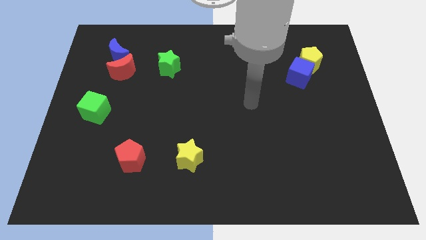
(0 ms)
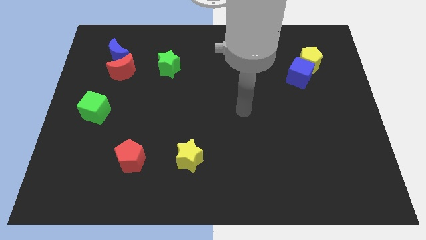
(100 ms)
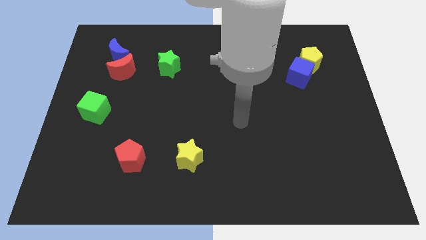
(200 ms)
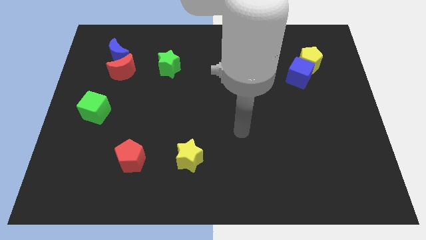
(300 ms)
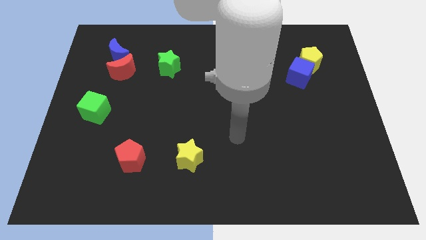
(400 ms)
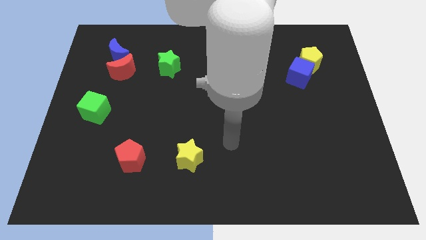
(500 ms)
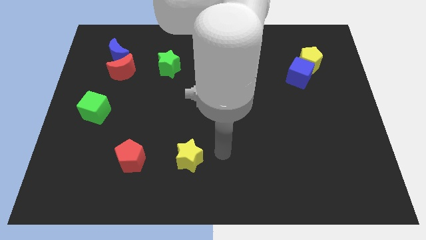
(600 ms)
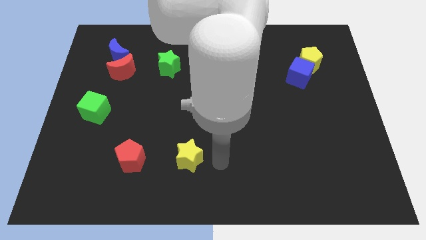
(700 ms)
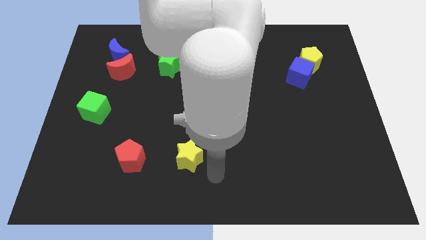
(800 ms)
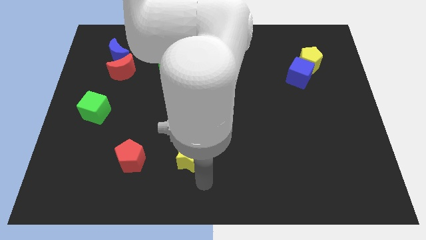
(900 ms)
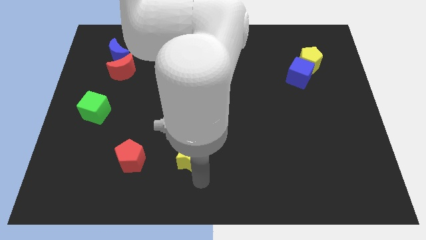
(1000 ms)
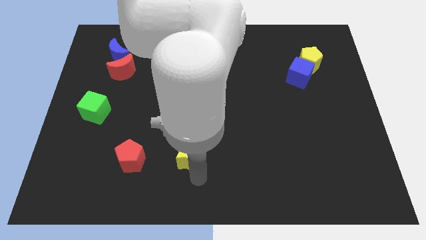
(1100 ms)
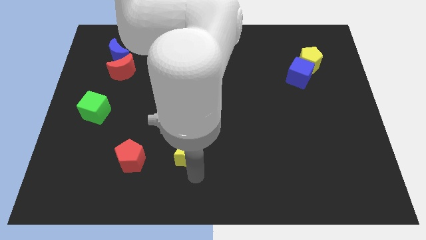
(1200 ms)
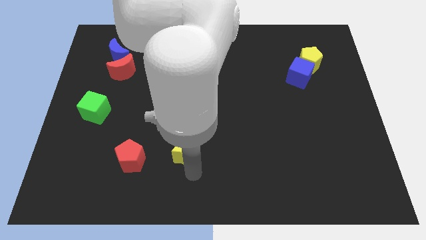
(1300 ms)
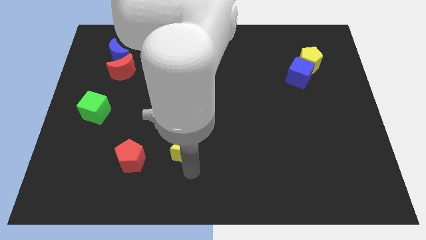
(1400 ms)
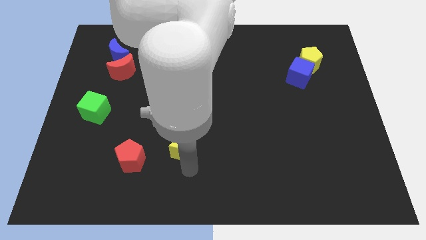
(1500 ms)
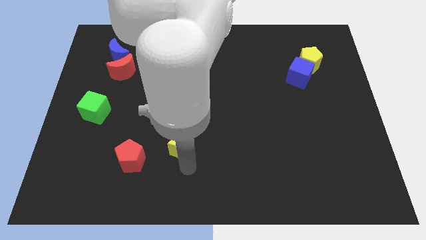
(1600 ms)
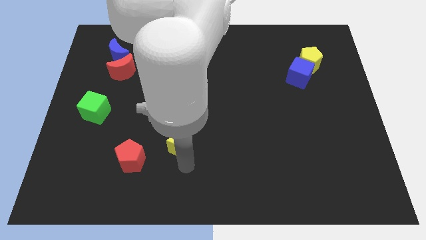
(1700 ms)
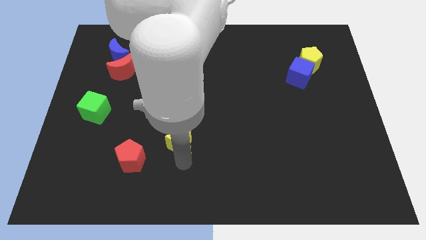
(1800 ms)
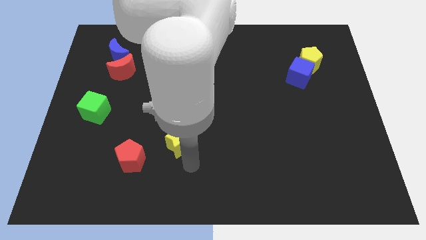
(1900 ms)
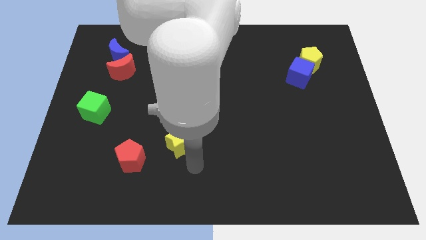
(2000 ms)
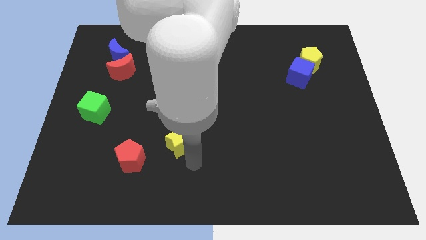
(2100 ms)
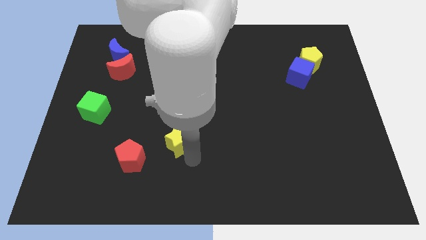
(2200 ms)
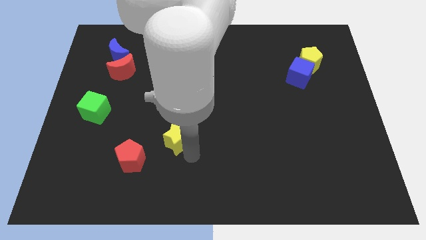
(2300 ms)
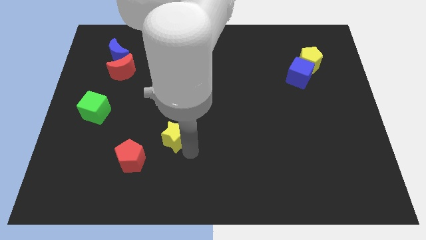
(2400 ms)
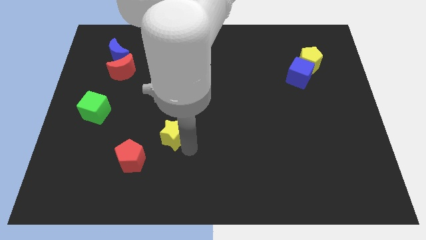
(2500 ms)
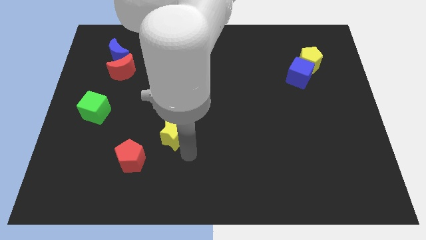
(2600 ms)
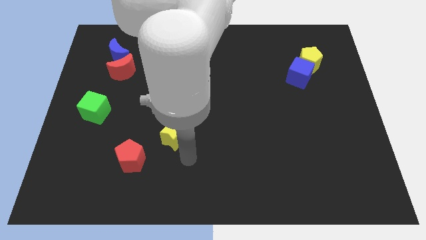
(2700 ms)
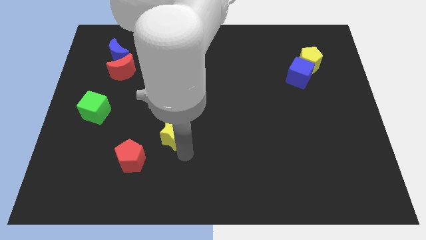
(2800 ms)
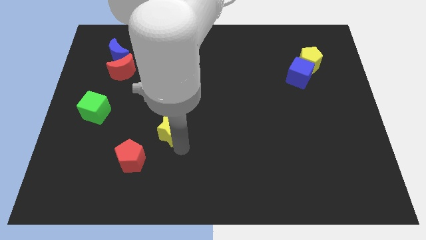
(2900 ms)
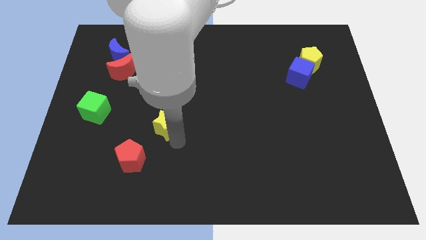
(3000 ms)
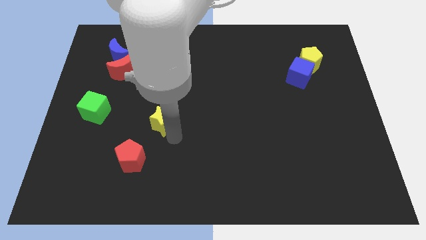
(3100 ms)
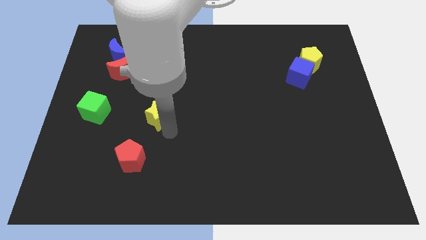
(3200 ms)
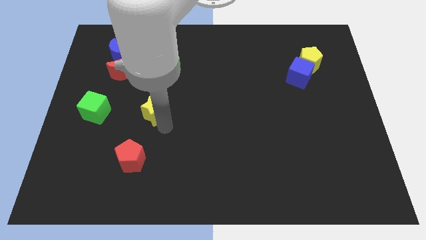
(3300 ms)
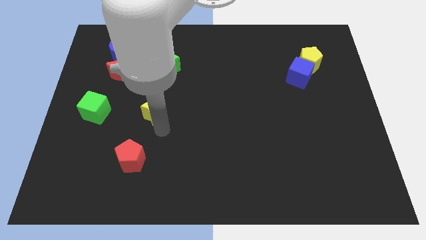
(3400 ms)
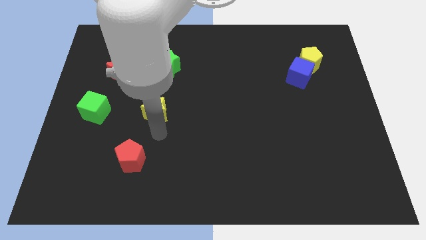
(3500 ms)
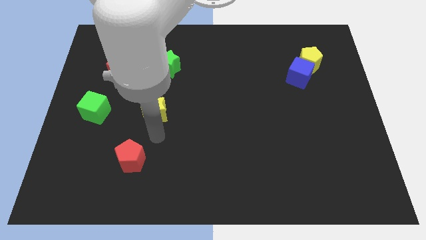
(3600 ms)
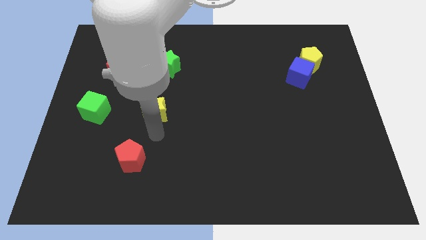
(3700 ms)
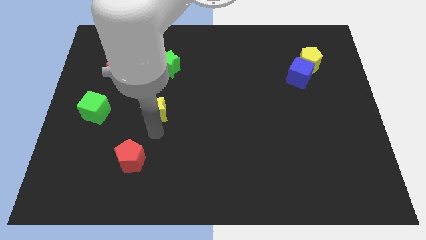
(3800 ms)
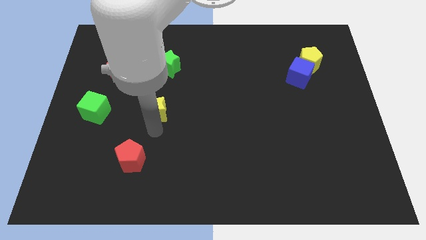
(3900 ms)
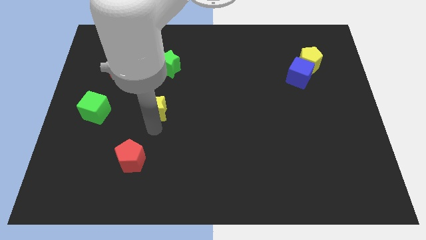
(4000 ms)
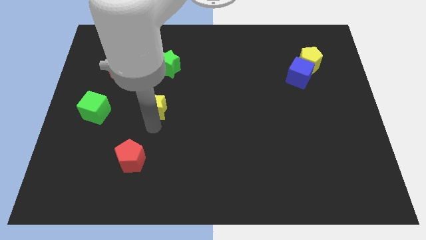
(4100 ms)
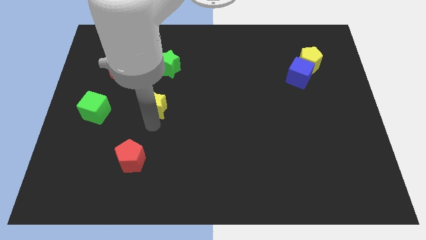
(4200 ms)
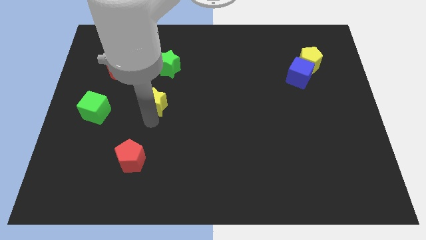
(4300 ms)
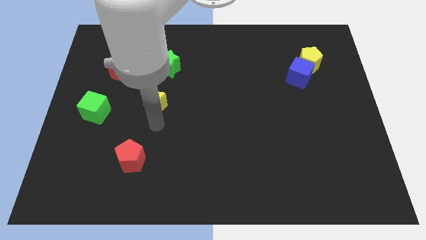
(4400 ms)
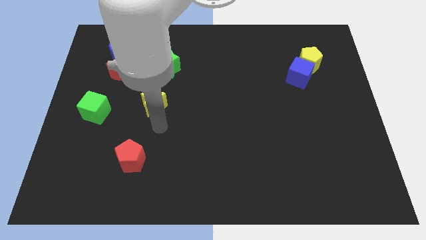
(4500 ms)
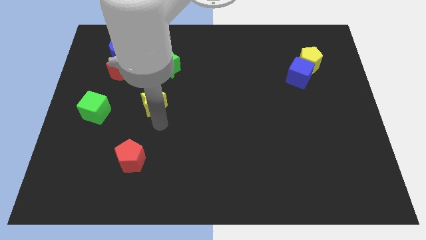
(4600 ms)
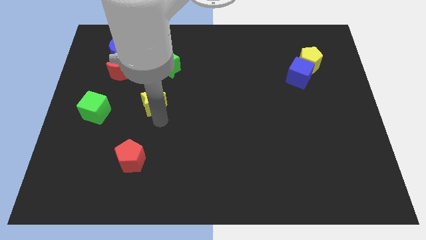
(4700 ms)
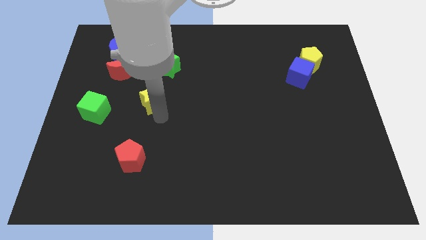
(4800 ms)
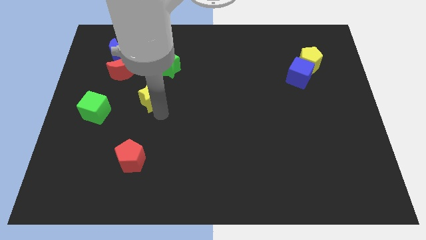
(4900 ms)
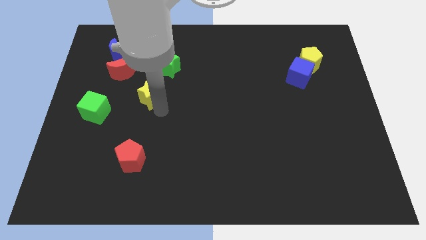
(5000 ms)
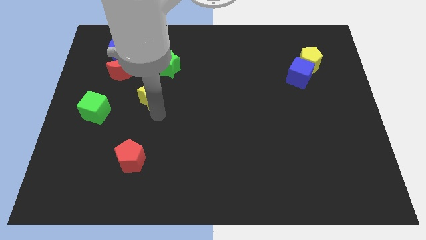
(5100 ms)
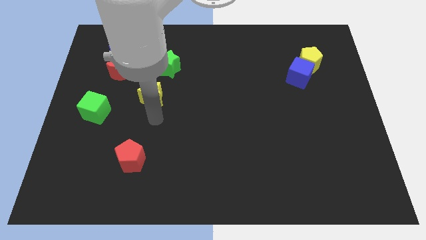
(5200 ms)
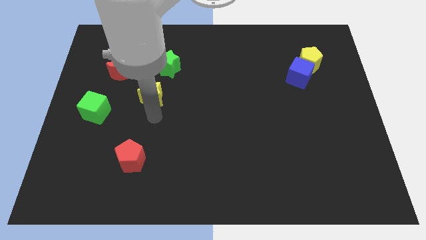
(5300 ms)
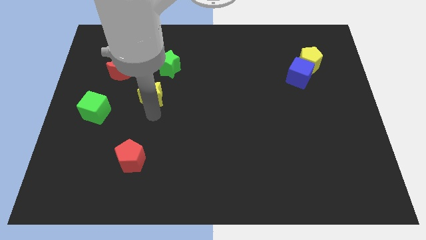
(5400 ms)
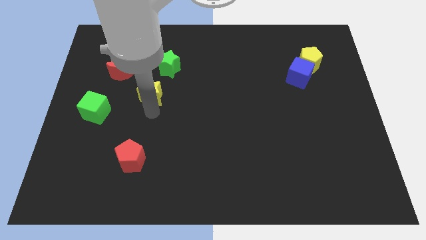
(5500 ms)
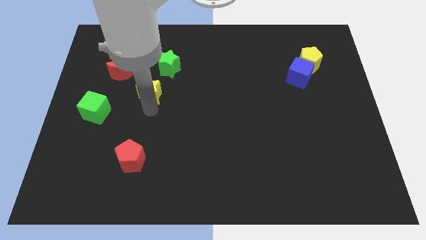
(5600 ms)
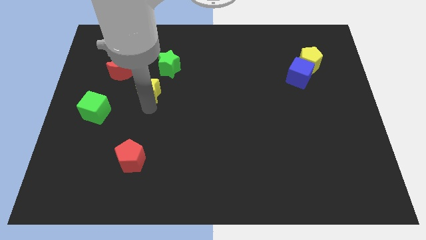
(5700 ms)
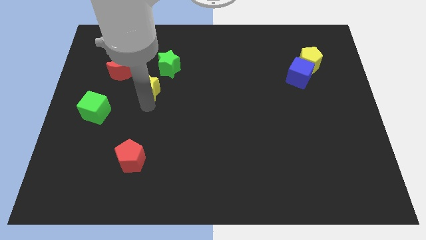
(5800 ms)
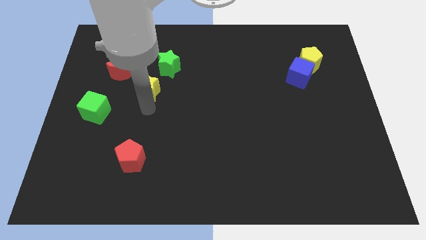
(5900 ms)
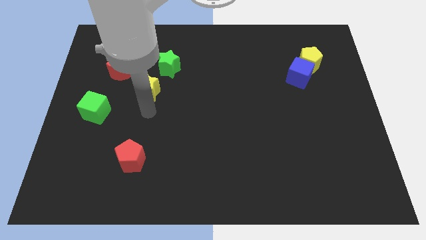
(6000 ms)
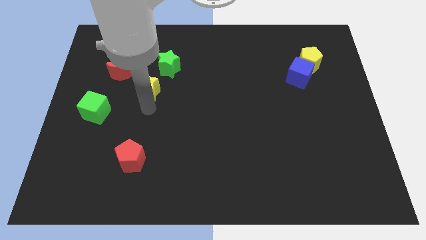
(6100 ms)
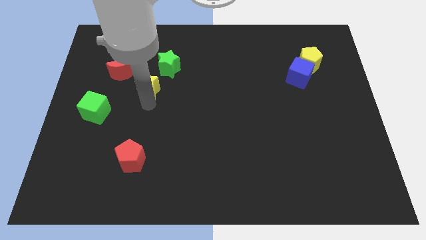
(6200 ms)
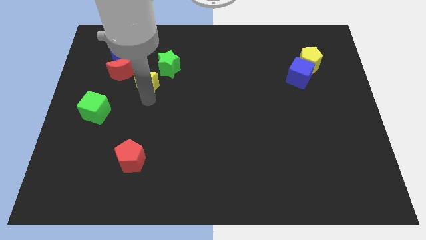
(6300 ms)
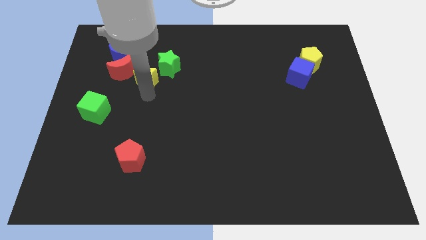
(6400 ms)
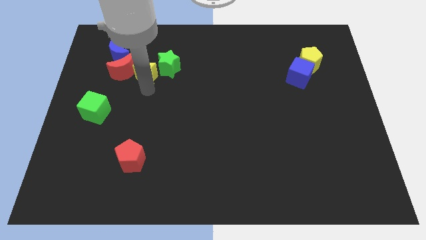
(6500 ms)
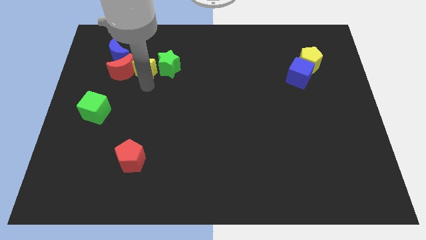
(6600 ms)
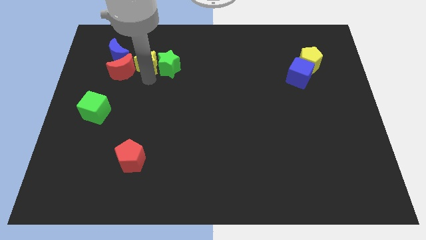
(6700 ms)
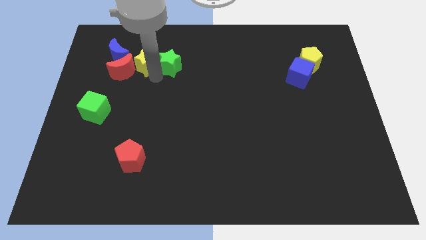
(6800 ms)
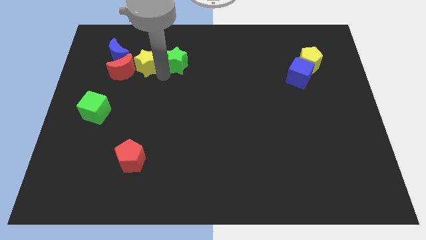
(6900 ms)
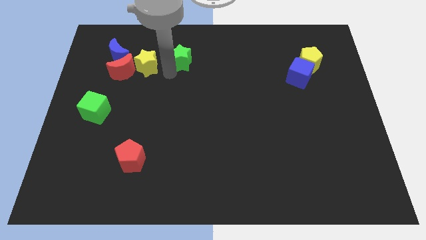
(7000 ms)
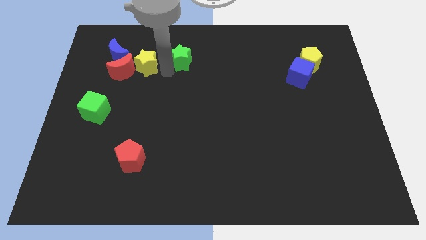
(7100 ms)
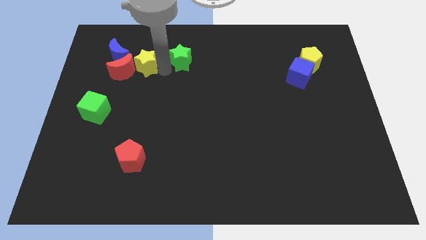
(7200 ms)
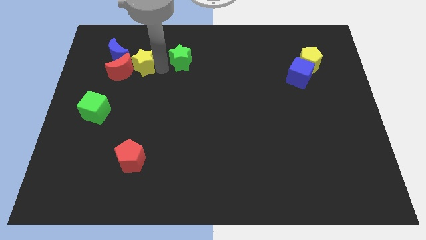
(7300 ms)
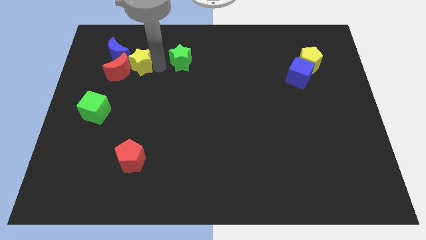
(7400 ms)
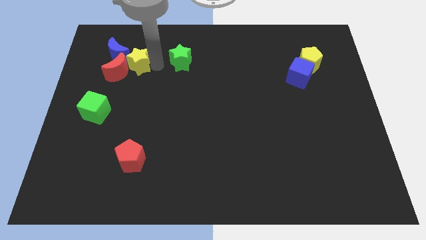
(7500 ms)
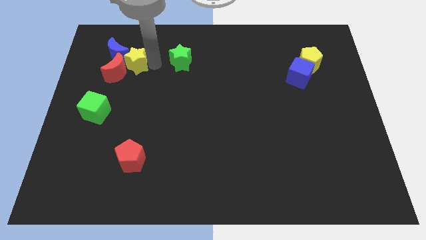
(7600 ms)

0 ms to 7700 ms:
slide the yellow star towards the blue moon
